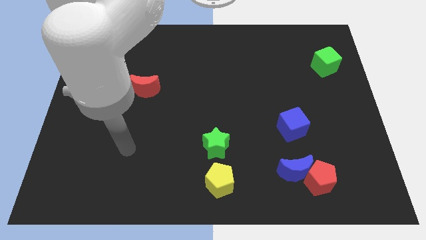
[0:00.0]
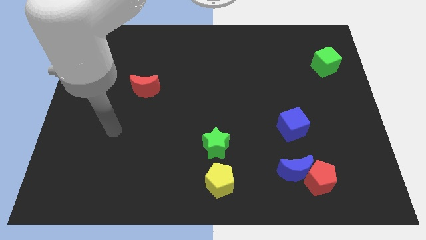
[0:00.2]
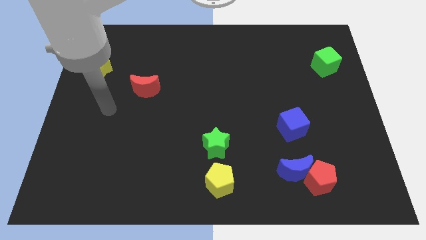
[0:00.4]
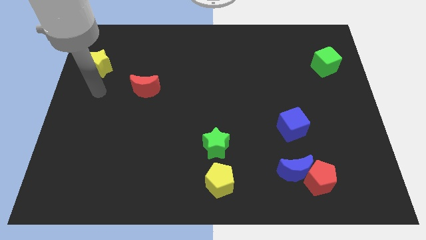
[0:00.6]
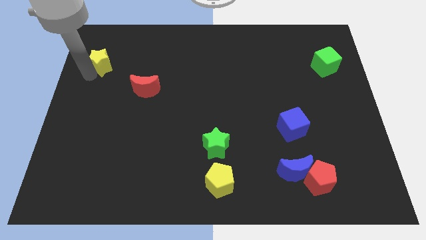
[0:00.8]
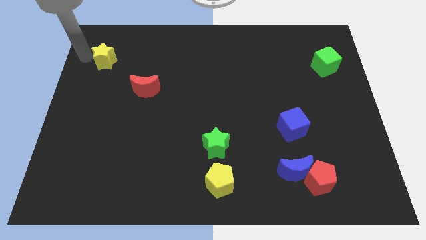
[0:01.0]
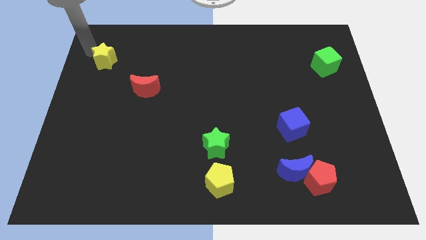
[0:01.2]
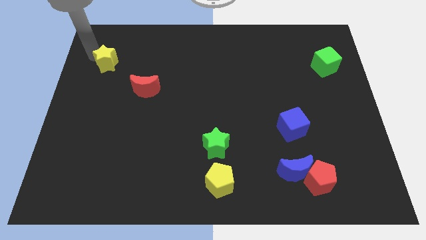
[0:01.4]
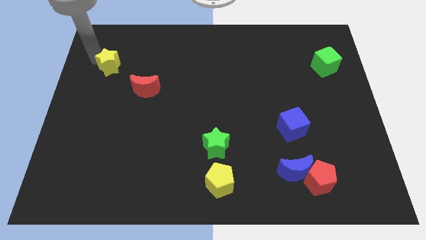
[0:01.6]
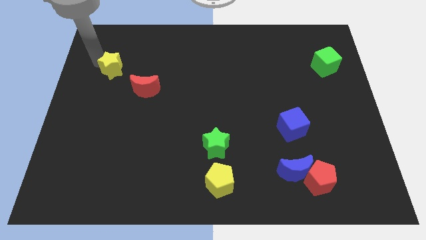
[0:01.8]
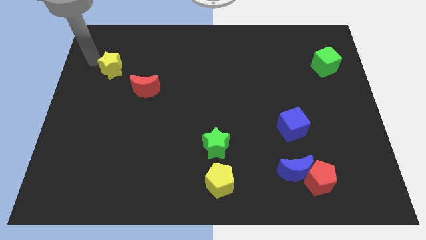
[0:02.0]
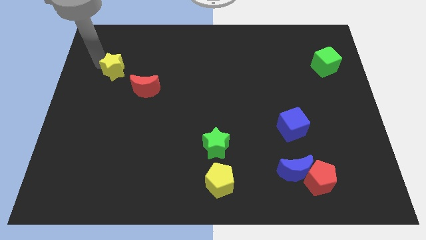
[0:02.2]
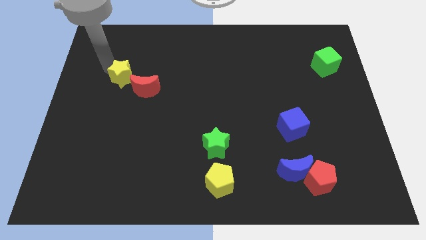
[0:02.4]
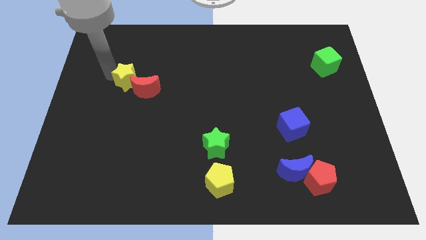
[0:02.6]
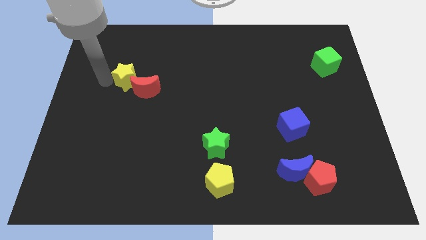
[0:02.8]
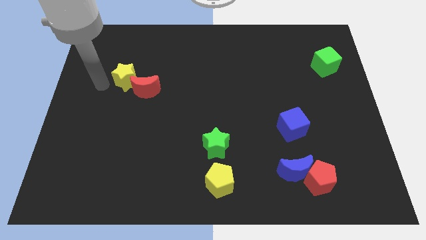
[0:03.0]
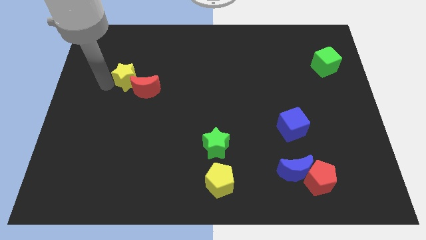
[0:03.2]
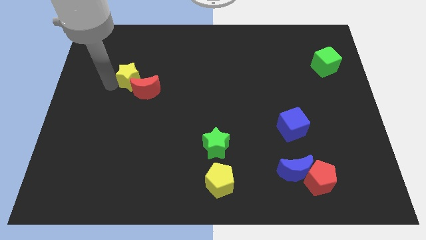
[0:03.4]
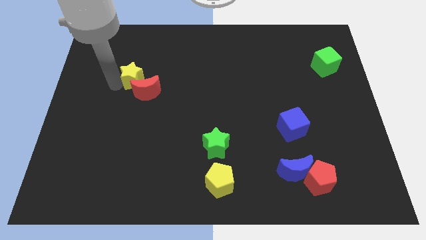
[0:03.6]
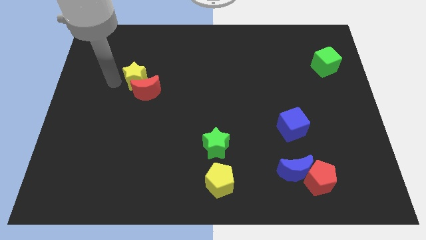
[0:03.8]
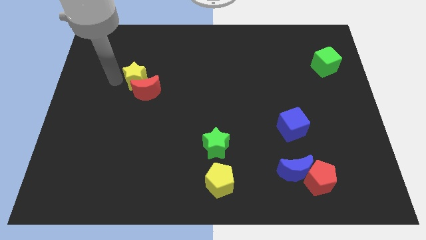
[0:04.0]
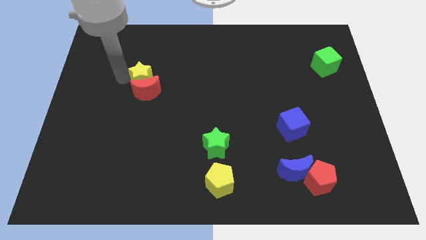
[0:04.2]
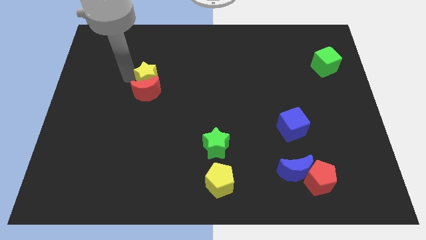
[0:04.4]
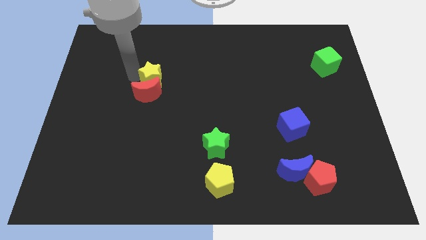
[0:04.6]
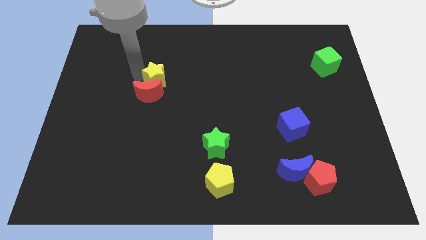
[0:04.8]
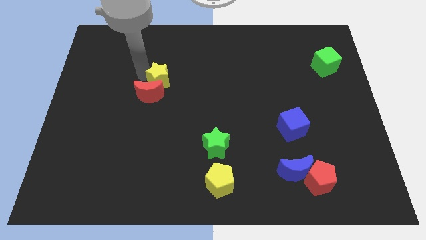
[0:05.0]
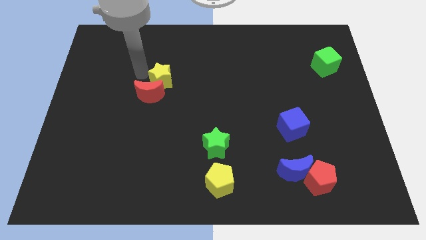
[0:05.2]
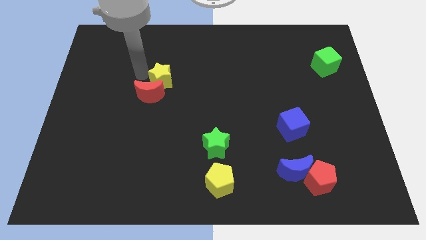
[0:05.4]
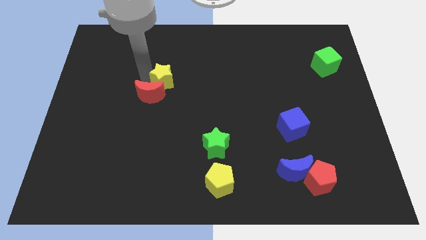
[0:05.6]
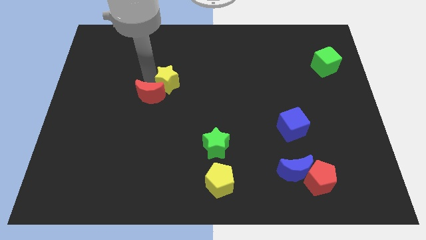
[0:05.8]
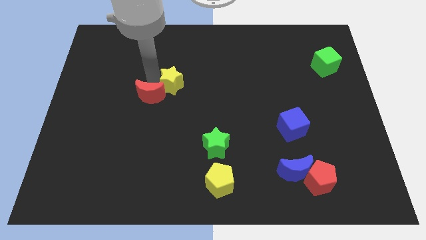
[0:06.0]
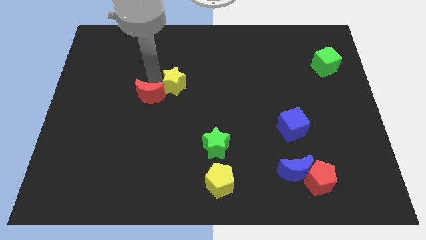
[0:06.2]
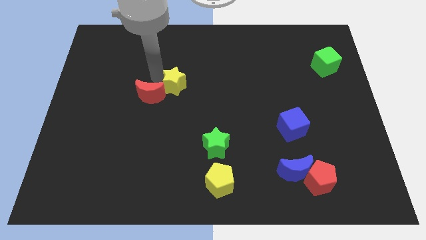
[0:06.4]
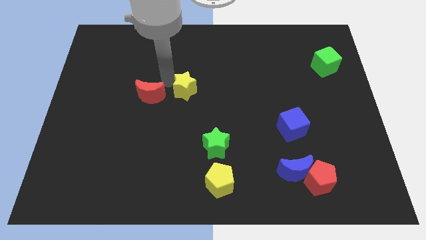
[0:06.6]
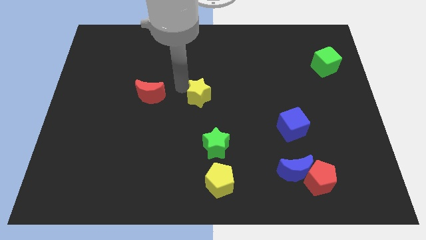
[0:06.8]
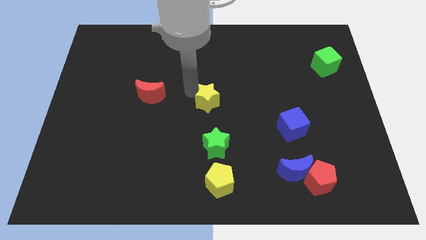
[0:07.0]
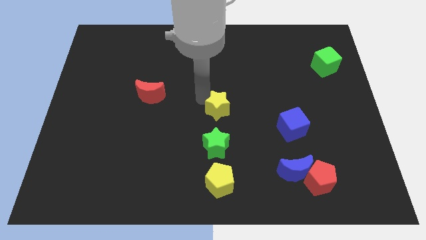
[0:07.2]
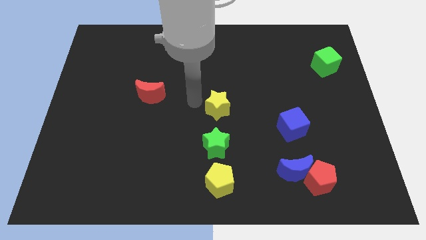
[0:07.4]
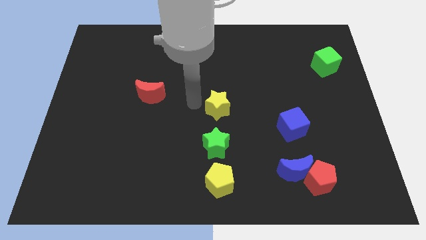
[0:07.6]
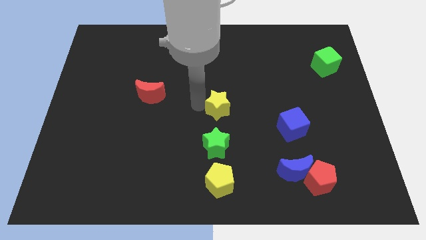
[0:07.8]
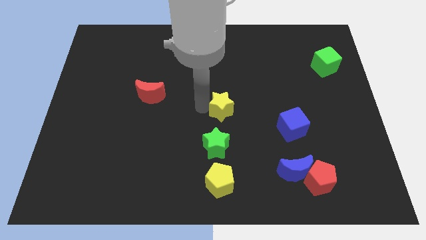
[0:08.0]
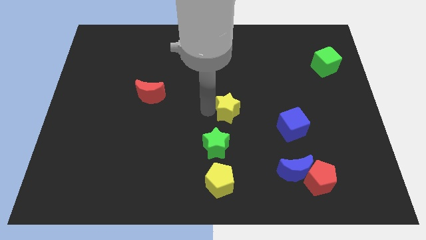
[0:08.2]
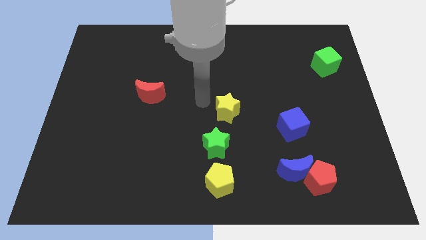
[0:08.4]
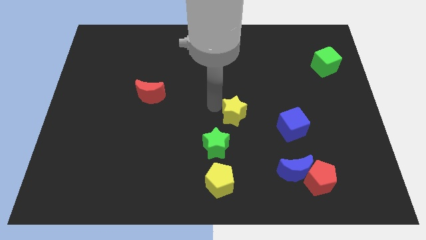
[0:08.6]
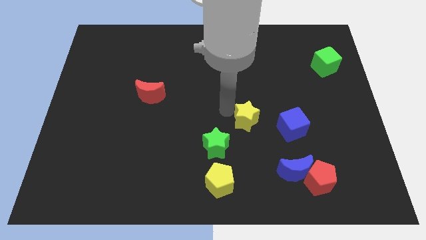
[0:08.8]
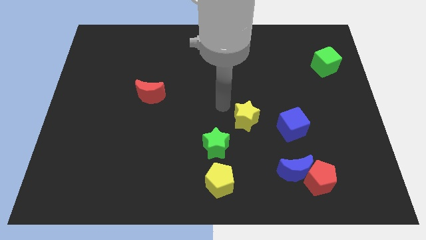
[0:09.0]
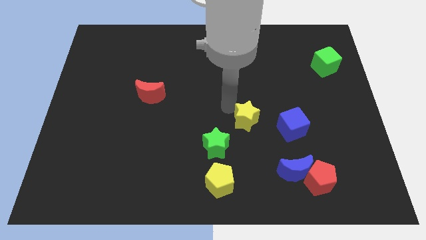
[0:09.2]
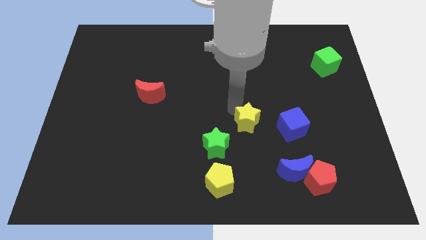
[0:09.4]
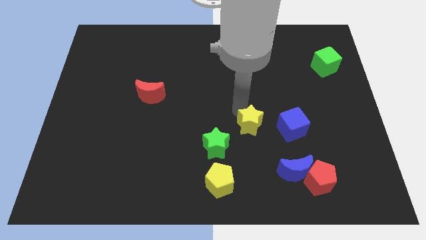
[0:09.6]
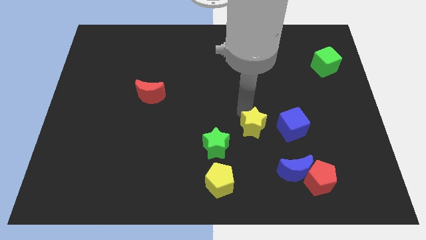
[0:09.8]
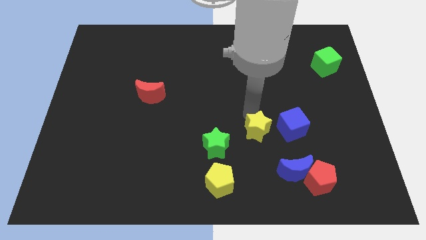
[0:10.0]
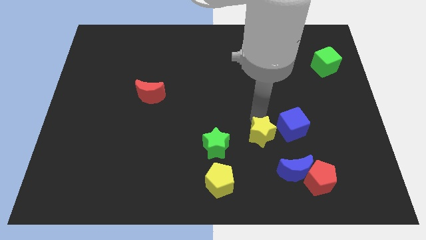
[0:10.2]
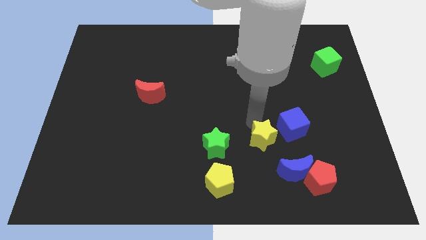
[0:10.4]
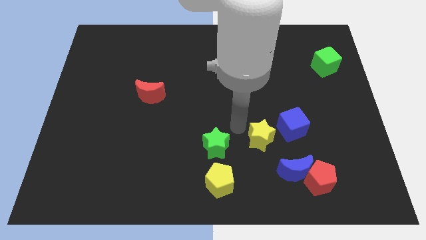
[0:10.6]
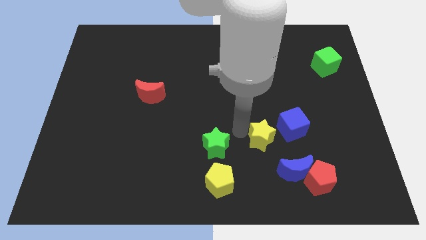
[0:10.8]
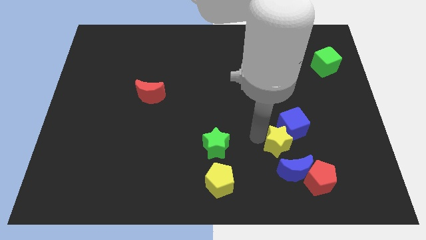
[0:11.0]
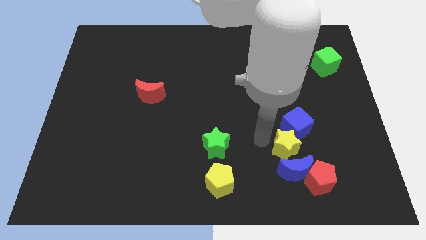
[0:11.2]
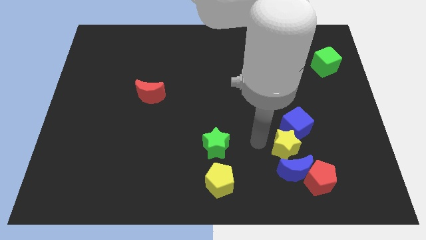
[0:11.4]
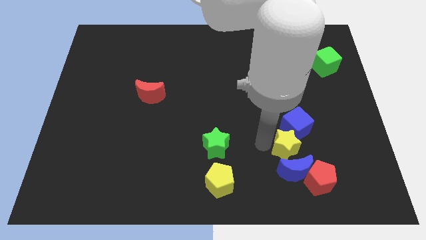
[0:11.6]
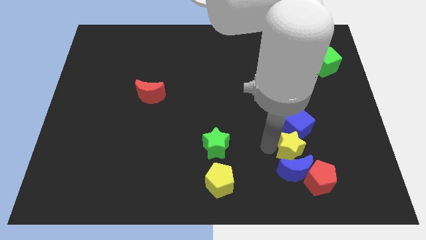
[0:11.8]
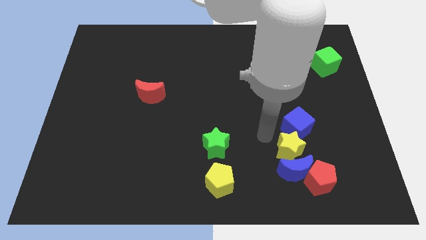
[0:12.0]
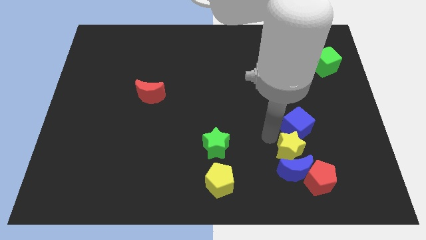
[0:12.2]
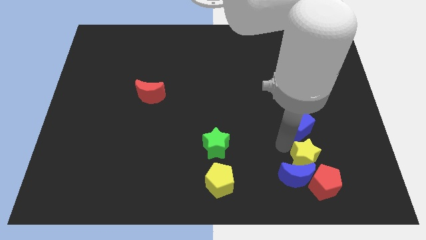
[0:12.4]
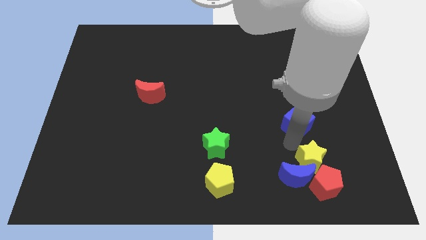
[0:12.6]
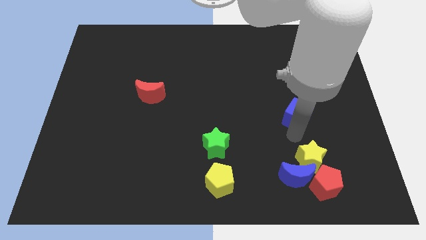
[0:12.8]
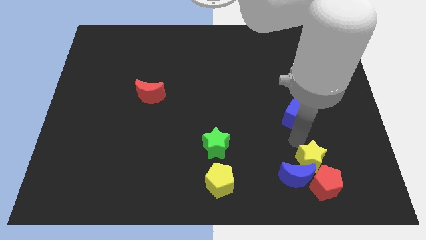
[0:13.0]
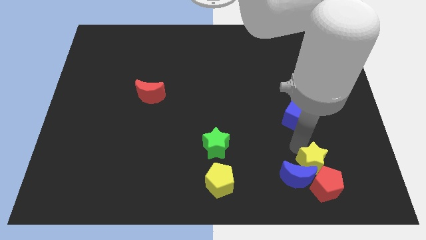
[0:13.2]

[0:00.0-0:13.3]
slide the yellow star to the red pentagon
